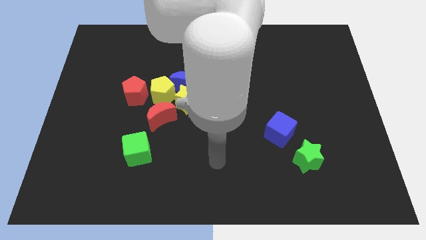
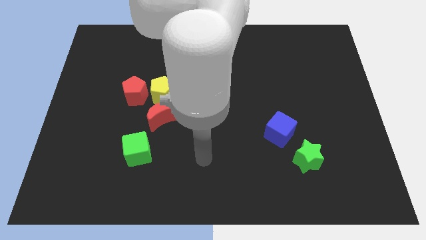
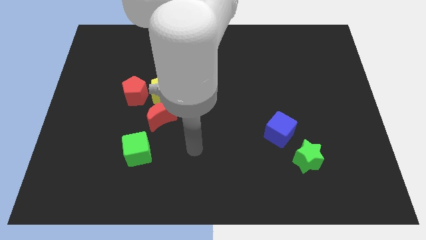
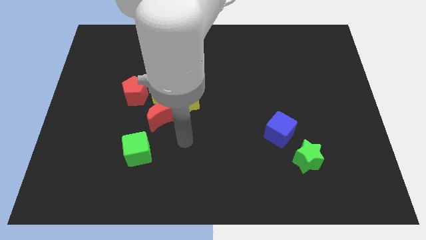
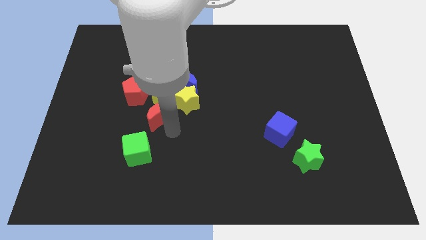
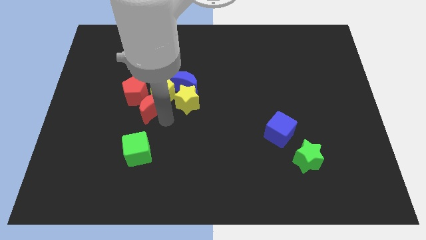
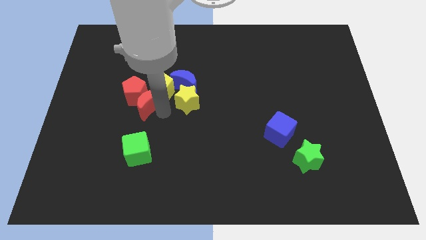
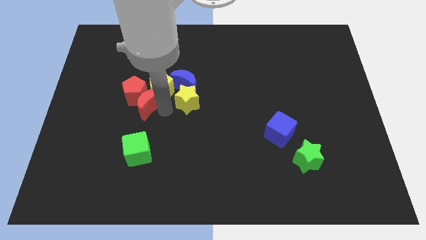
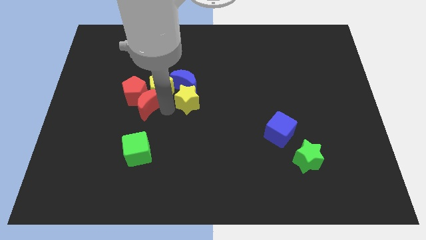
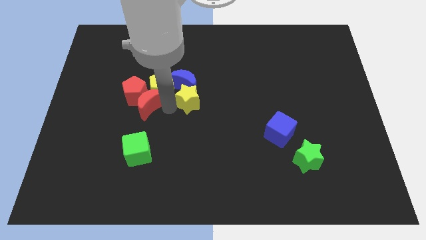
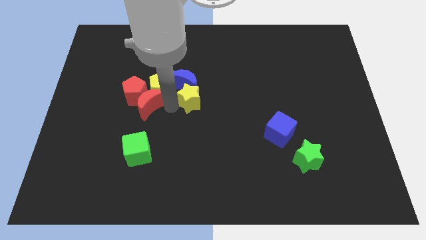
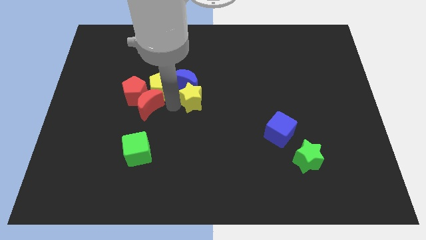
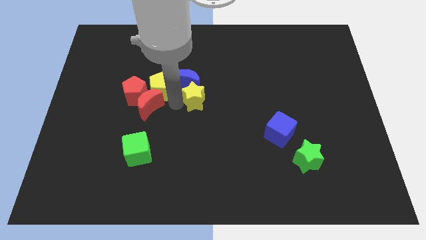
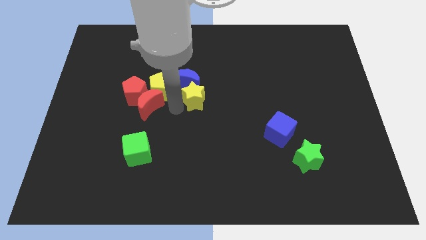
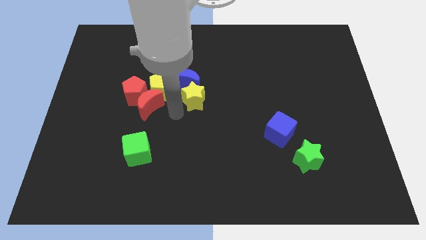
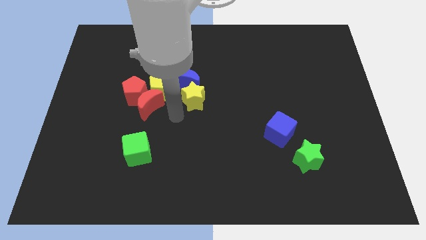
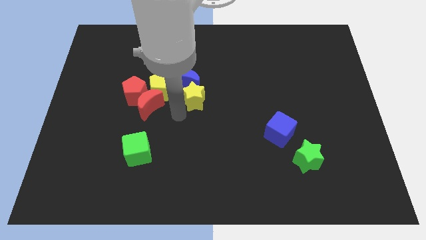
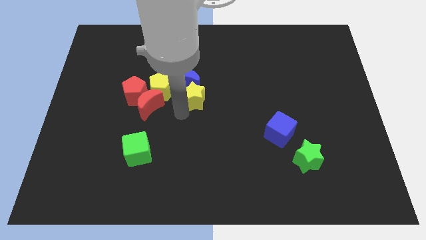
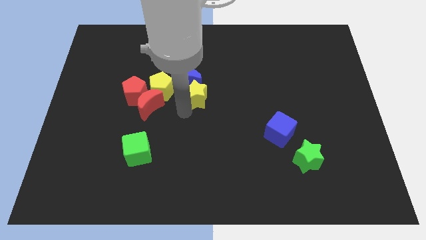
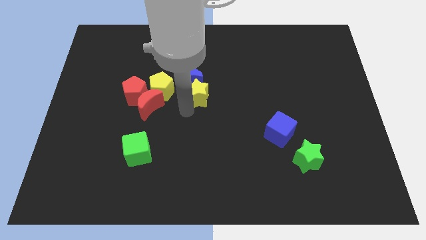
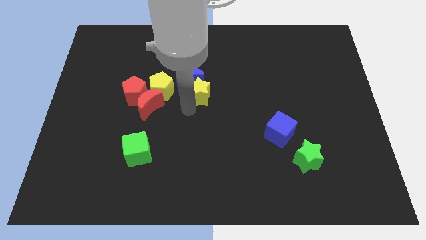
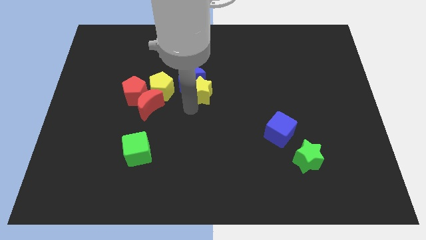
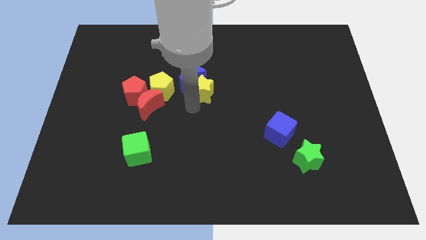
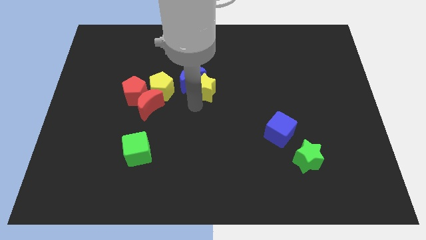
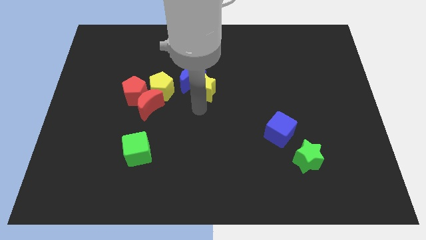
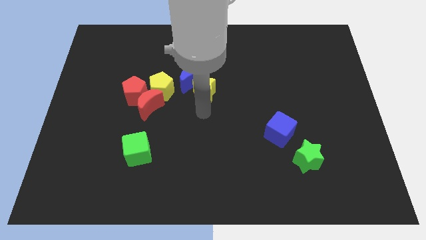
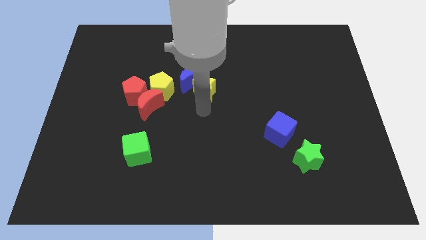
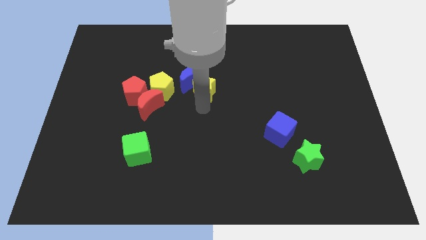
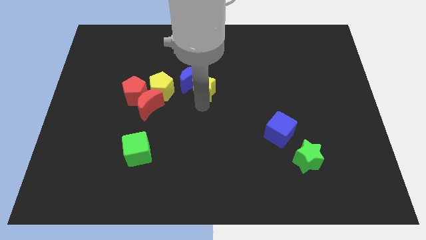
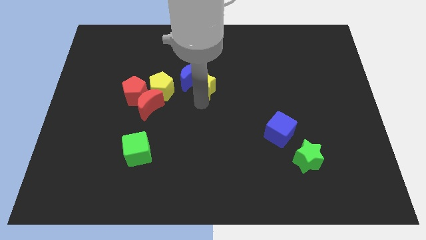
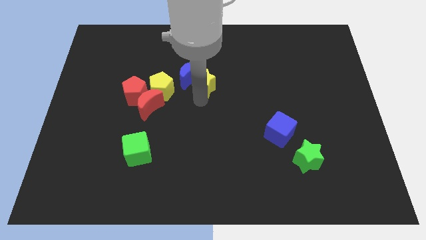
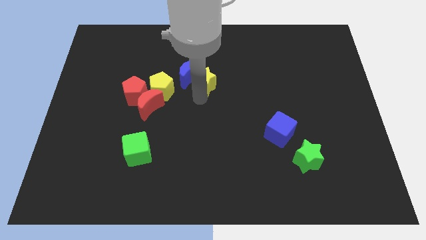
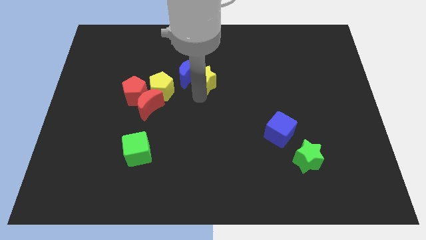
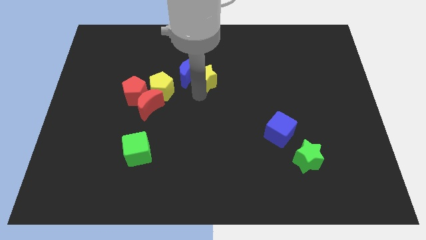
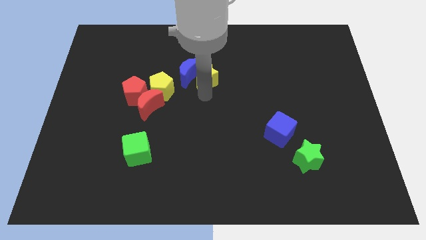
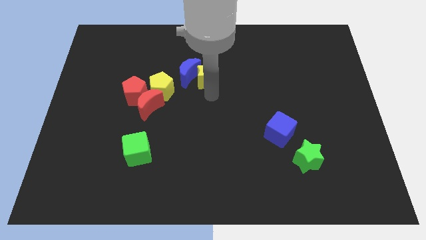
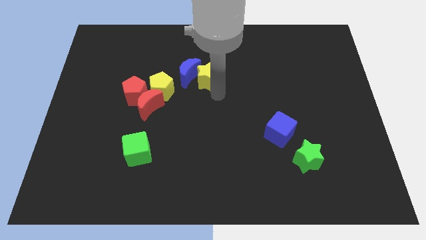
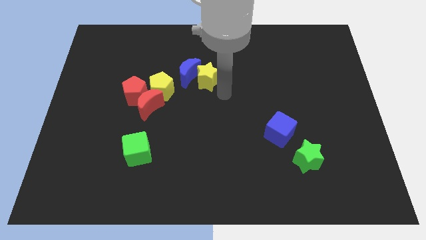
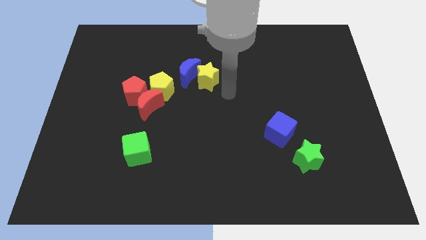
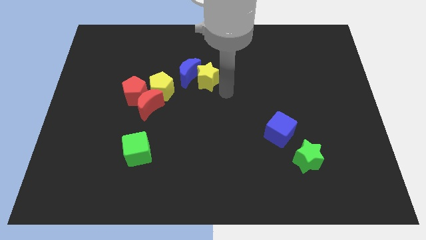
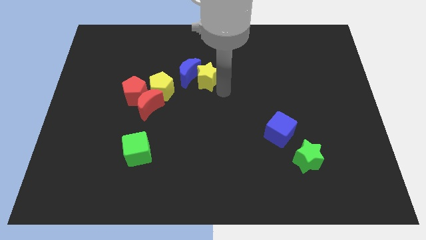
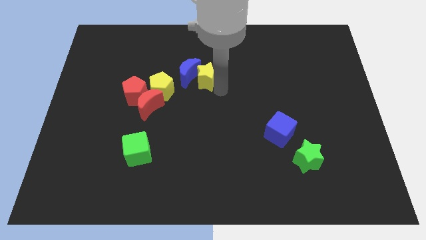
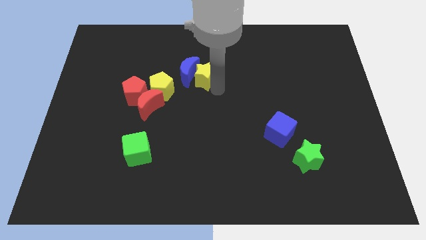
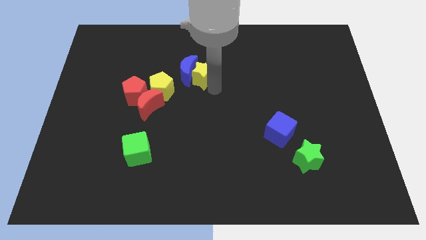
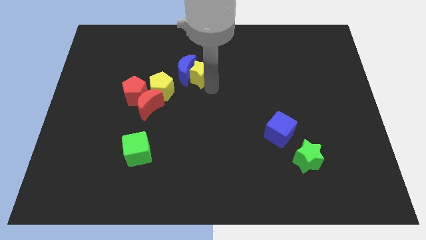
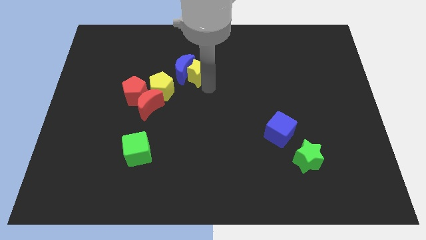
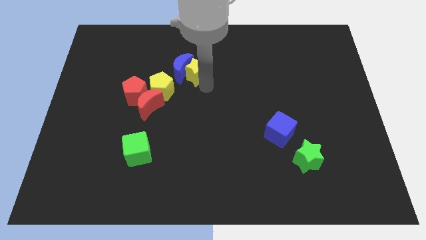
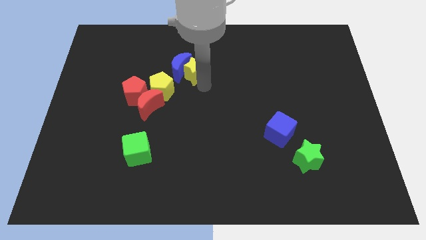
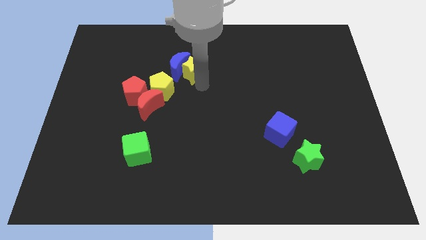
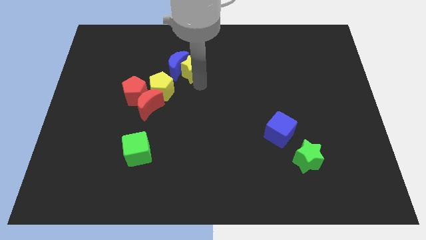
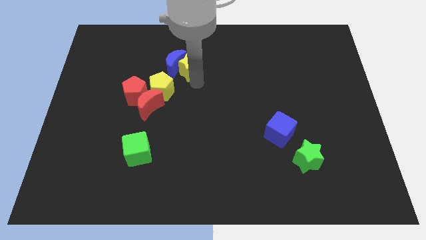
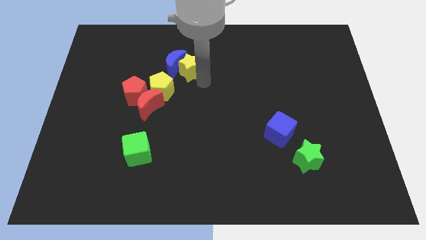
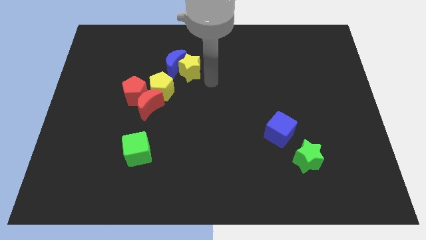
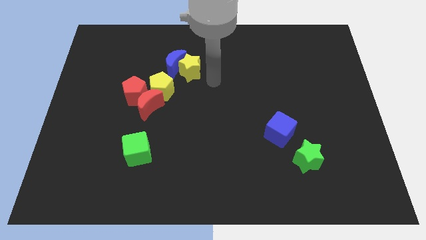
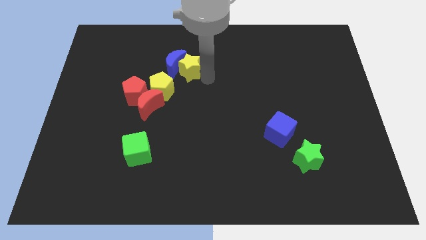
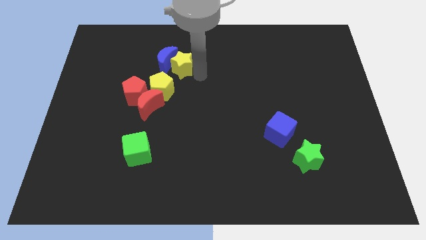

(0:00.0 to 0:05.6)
move the yellow star to the top side of the yellow pentagon

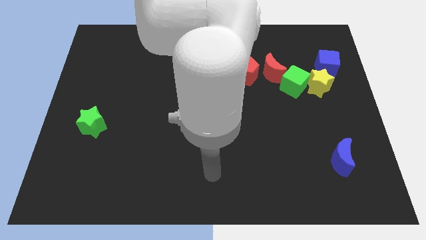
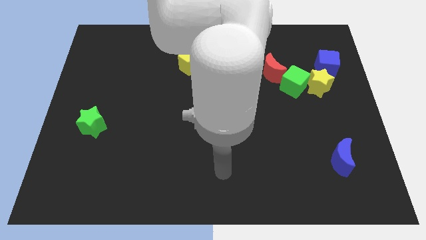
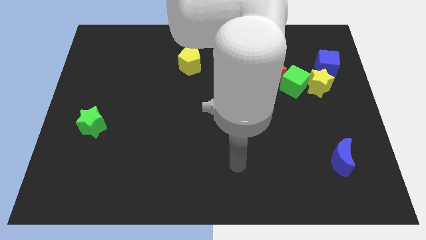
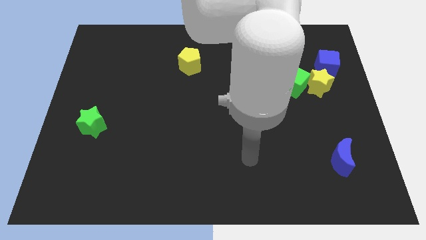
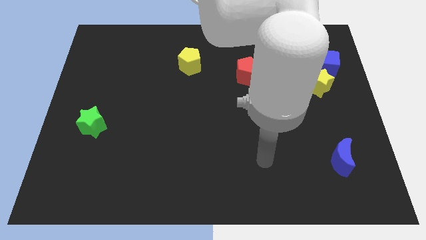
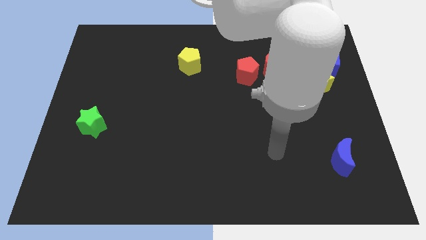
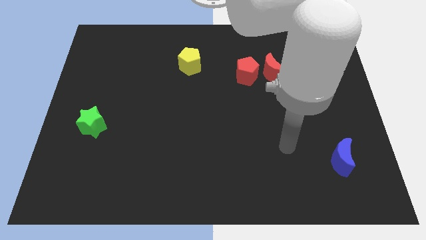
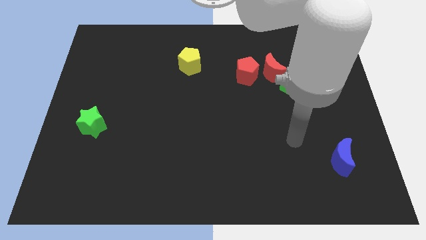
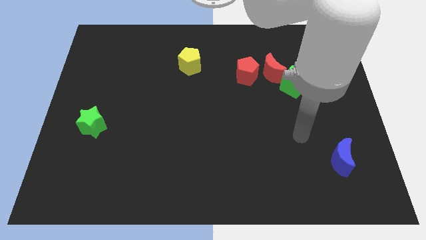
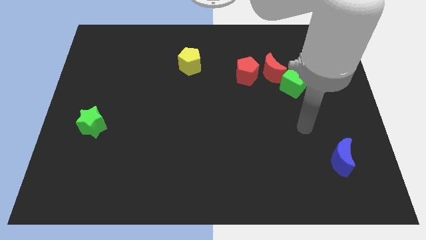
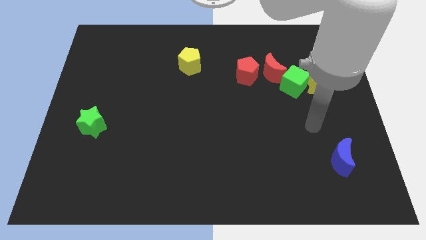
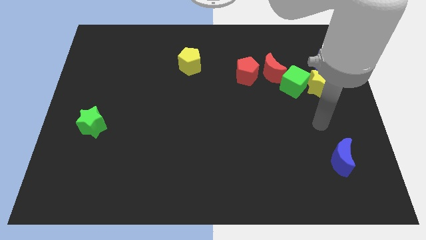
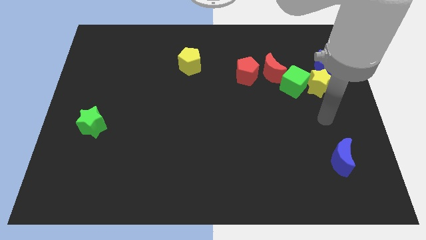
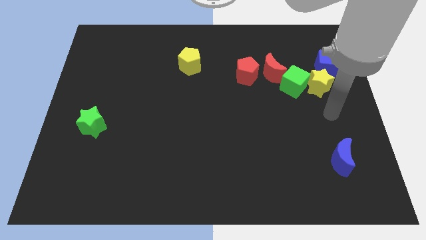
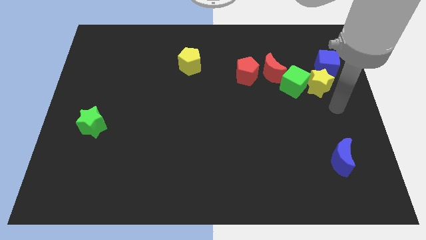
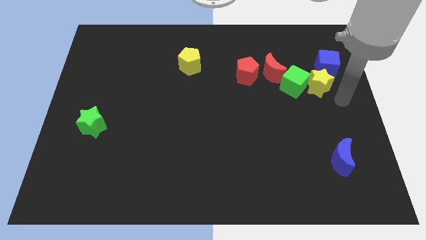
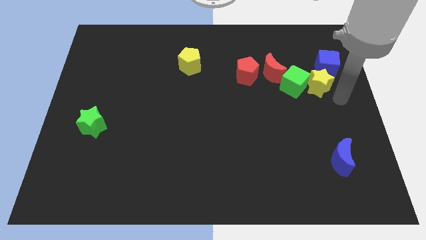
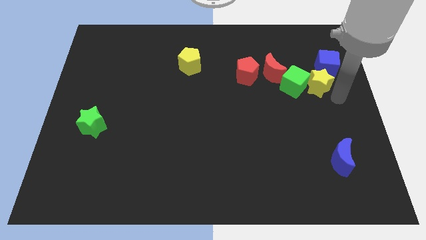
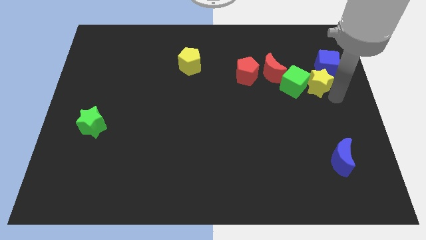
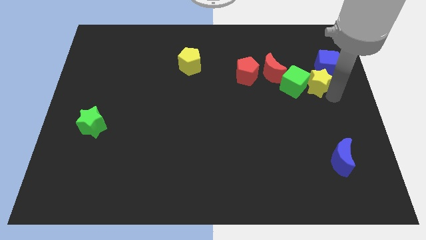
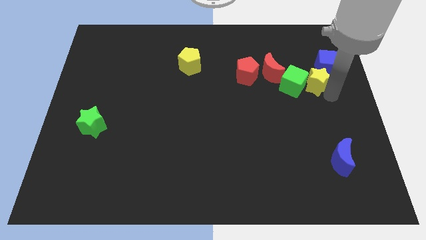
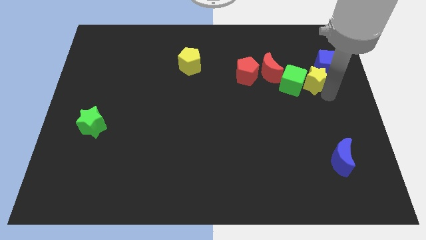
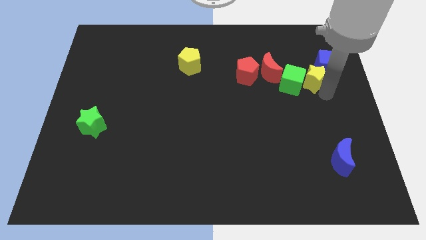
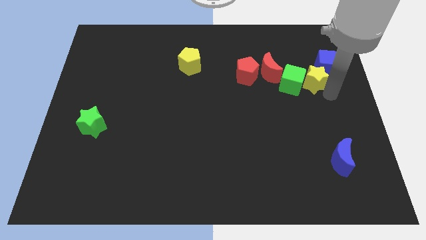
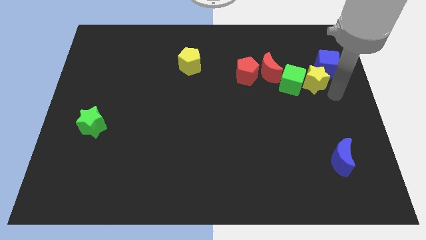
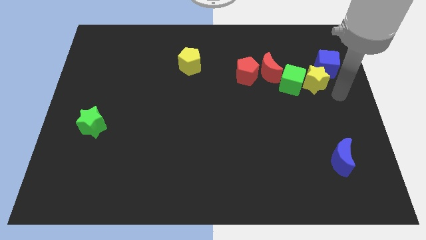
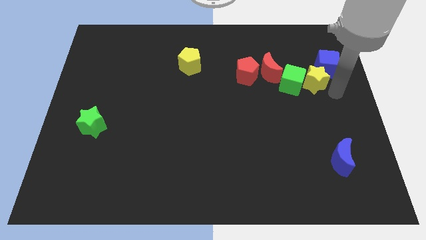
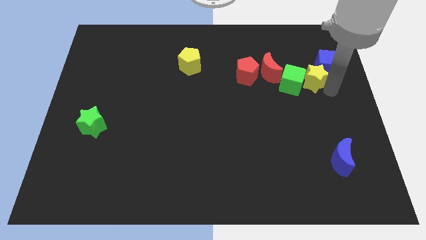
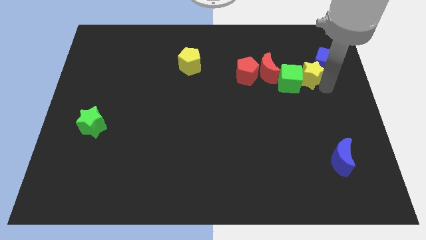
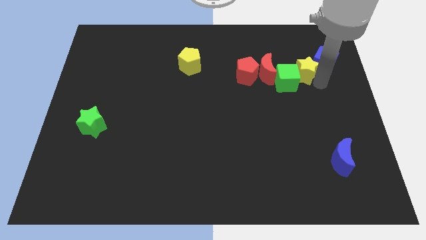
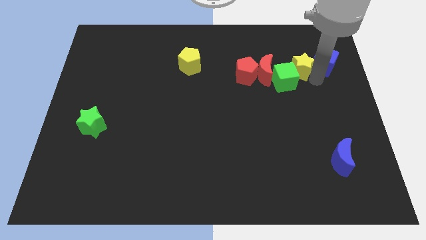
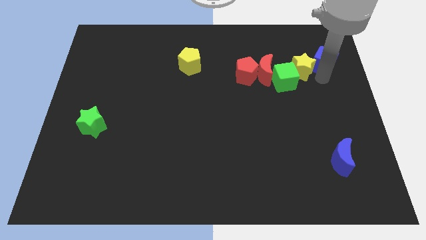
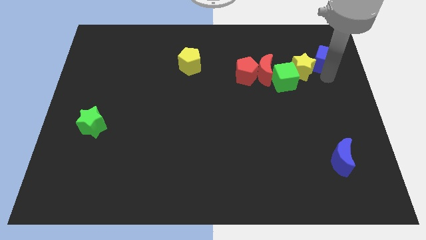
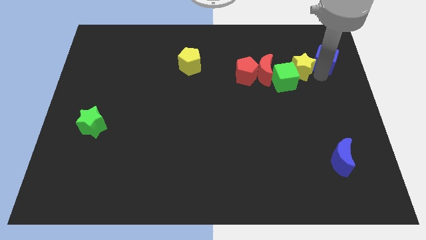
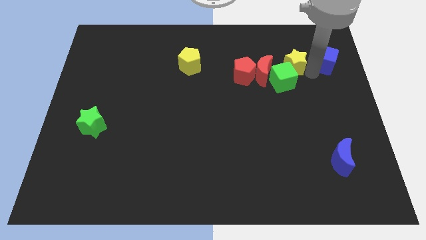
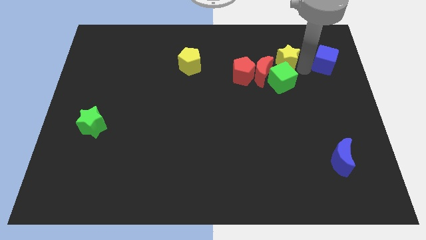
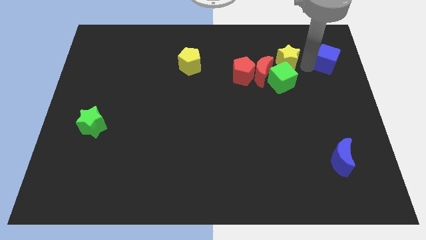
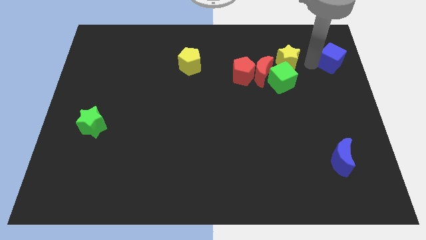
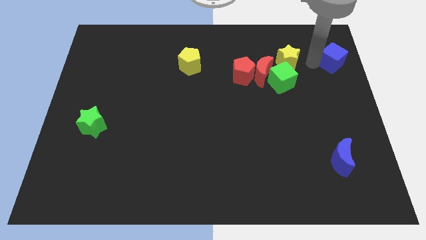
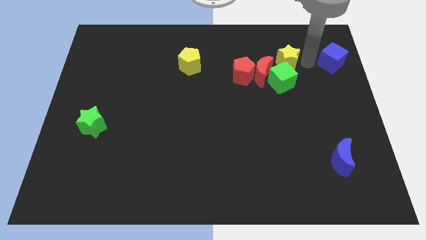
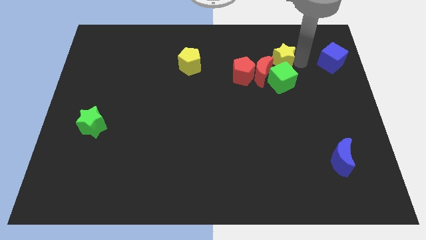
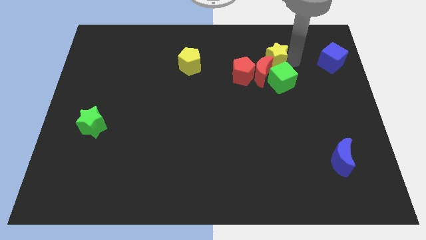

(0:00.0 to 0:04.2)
put the yellow star diagonally up and to the right of the red pentagon
